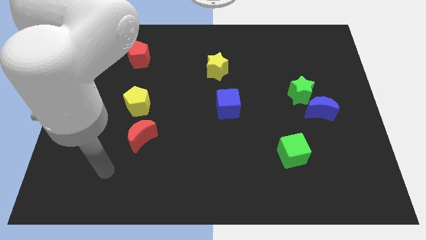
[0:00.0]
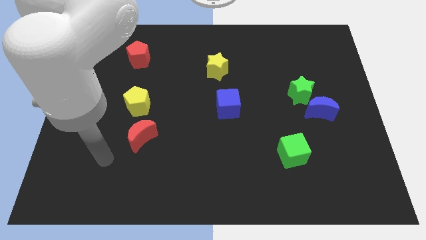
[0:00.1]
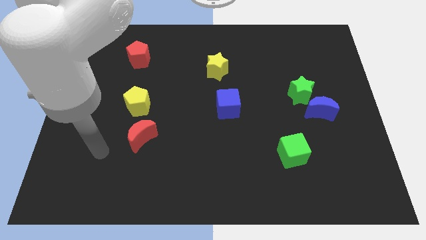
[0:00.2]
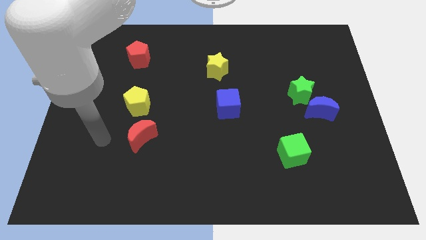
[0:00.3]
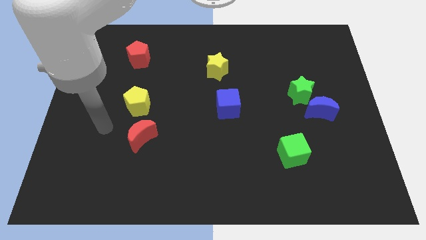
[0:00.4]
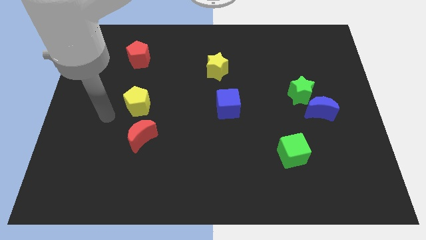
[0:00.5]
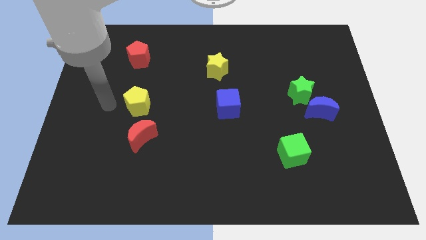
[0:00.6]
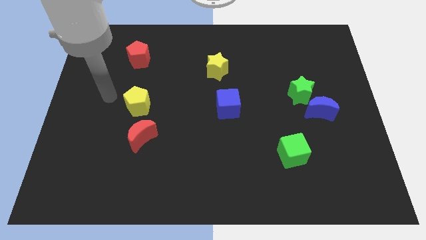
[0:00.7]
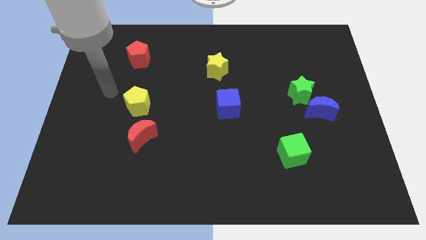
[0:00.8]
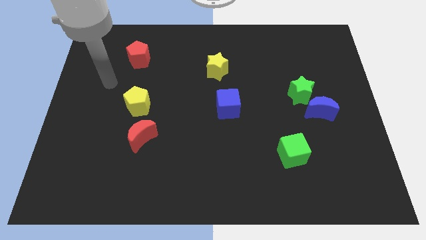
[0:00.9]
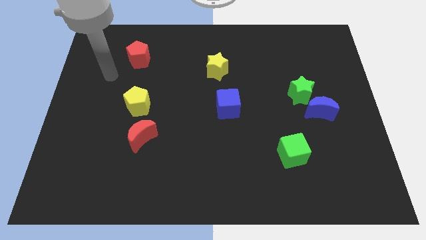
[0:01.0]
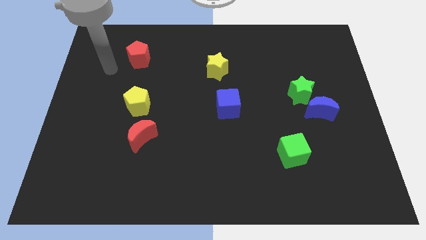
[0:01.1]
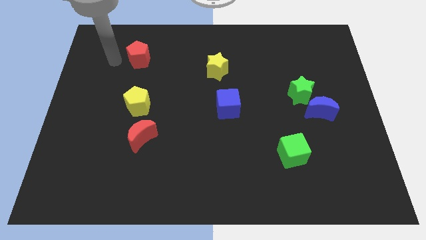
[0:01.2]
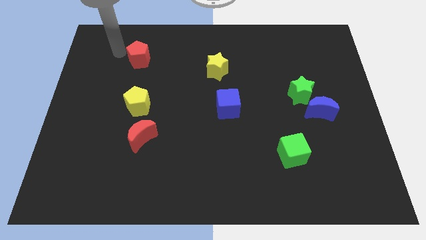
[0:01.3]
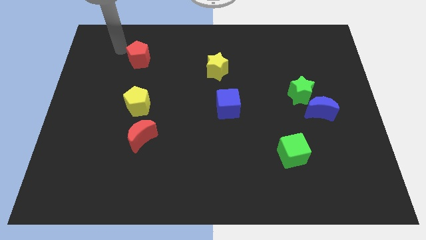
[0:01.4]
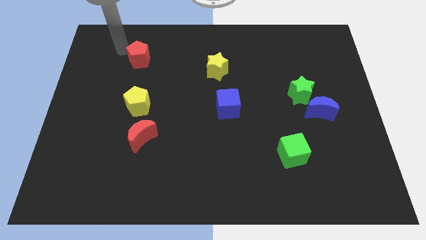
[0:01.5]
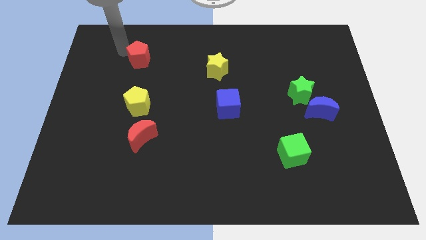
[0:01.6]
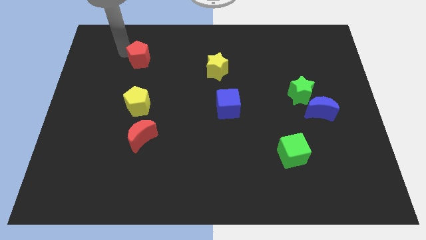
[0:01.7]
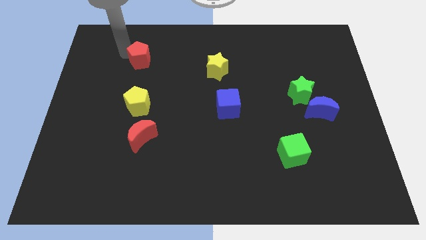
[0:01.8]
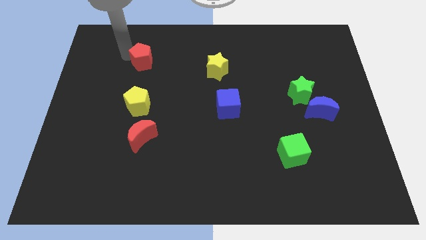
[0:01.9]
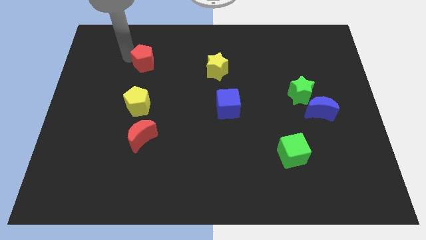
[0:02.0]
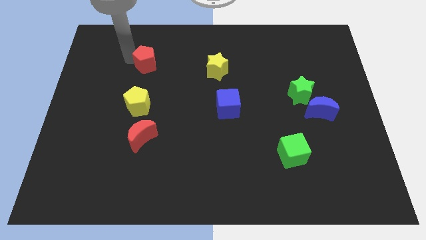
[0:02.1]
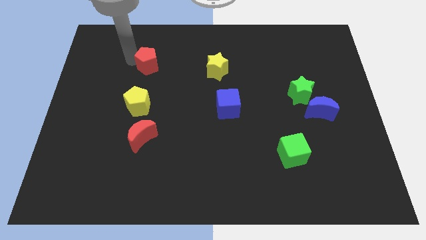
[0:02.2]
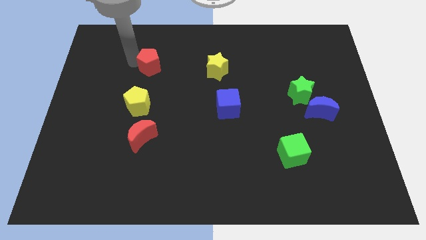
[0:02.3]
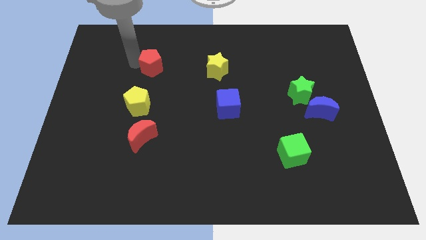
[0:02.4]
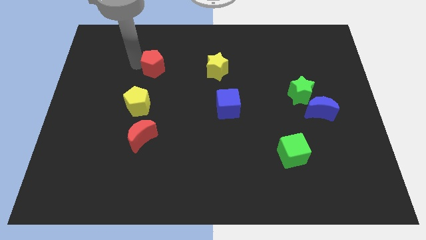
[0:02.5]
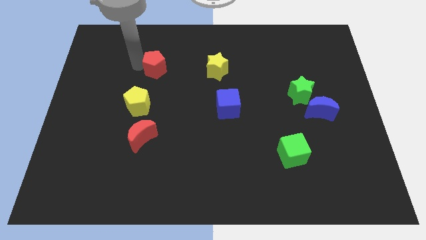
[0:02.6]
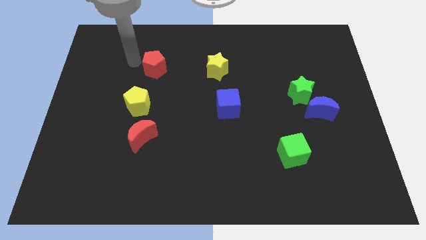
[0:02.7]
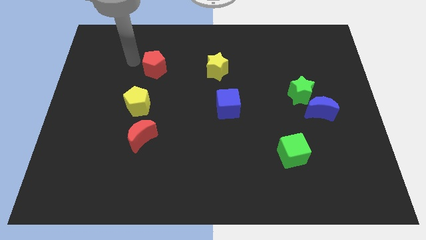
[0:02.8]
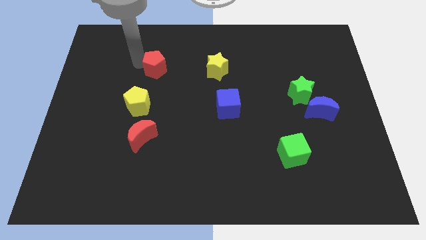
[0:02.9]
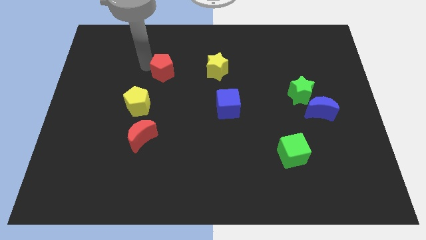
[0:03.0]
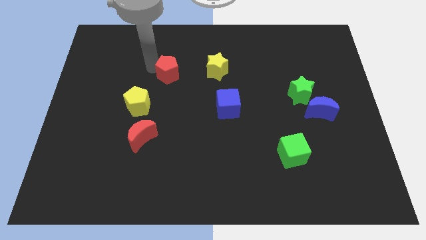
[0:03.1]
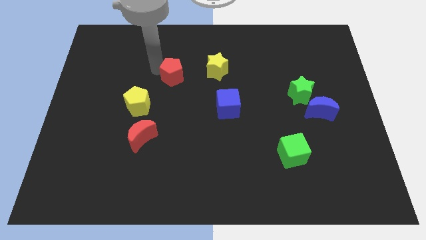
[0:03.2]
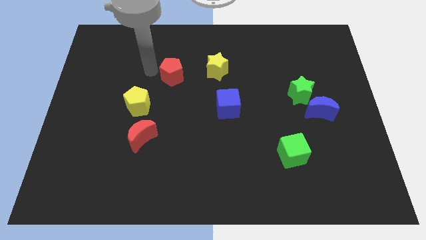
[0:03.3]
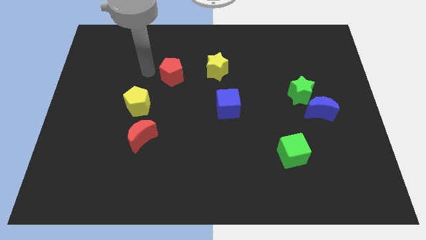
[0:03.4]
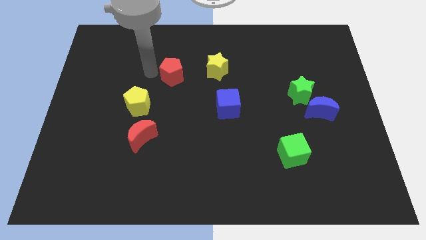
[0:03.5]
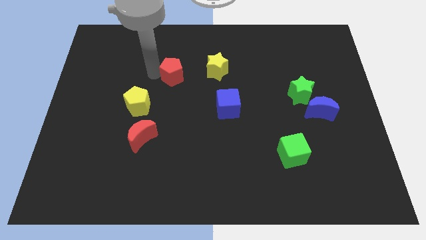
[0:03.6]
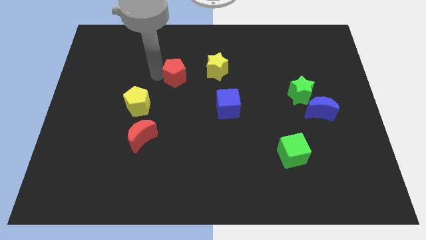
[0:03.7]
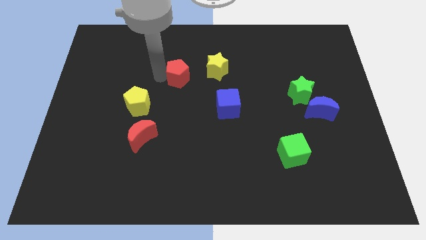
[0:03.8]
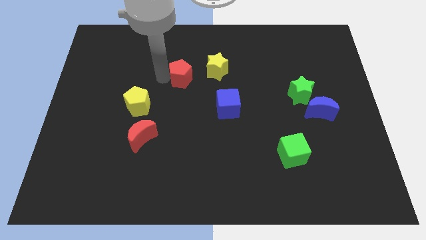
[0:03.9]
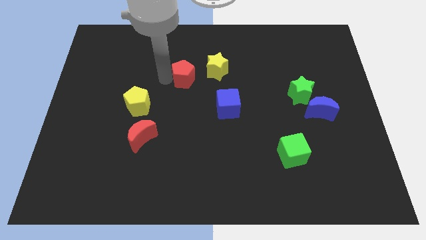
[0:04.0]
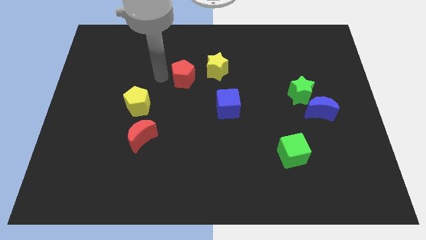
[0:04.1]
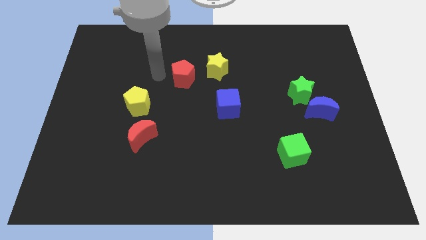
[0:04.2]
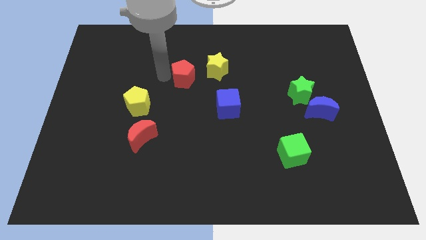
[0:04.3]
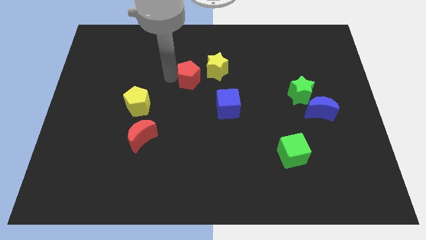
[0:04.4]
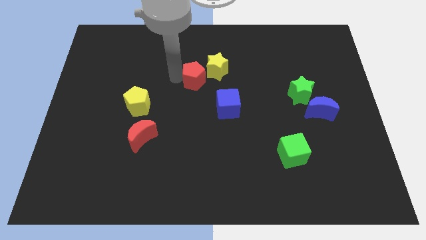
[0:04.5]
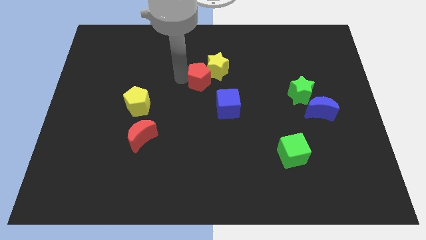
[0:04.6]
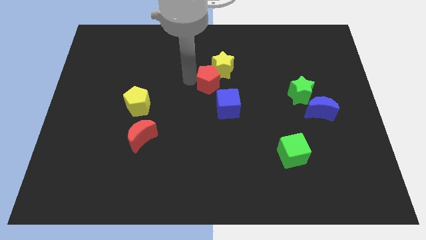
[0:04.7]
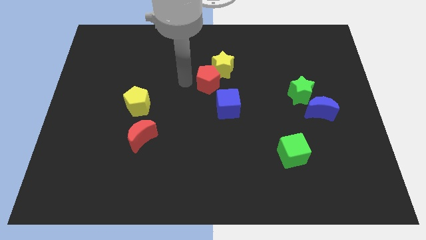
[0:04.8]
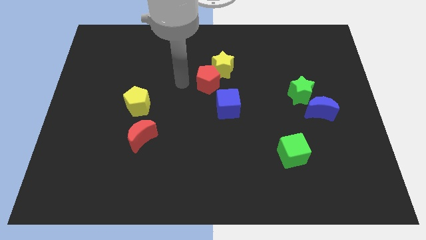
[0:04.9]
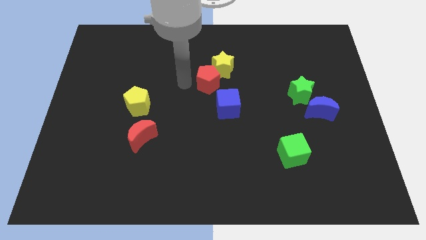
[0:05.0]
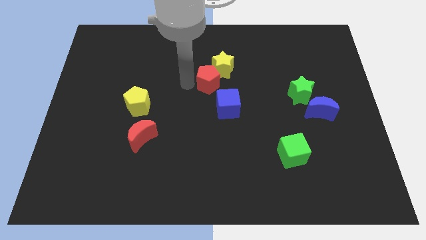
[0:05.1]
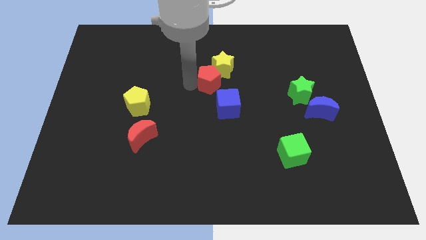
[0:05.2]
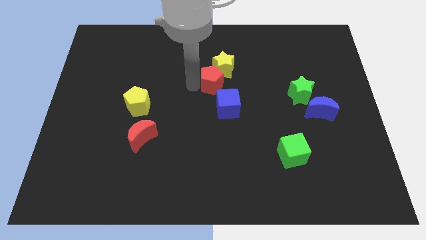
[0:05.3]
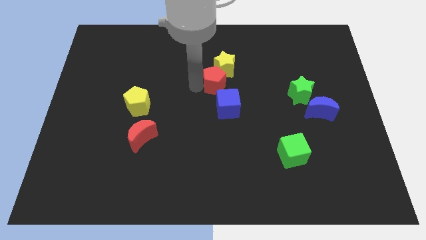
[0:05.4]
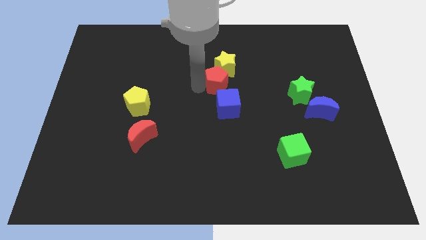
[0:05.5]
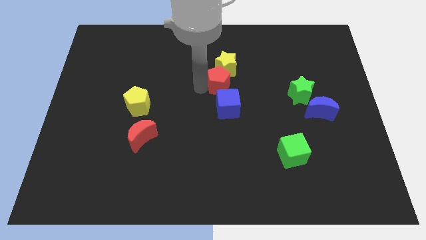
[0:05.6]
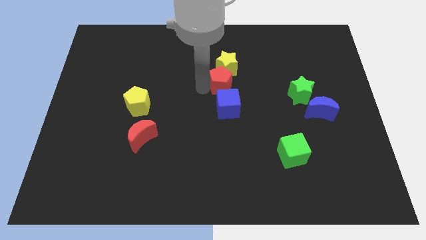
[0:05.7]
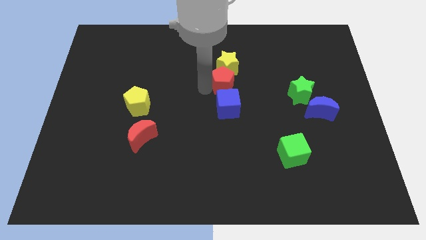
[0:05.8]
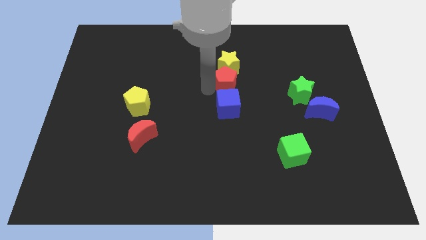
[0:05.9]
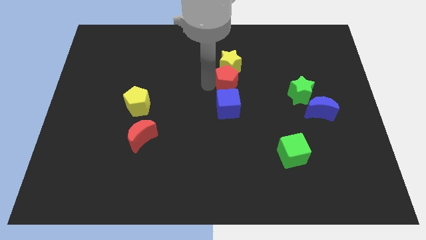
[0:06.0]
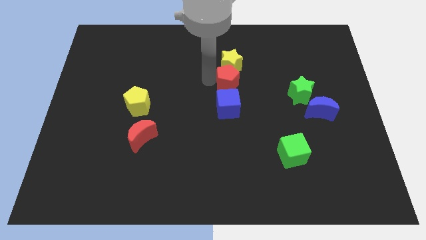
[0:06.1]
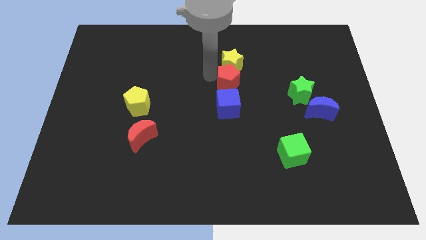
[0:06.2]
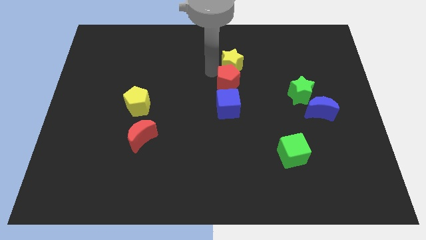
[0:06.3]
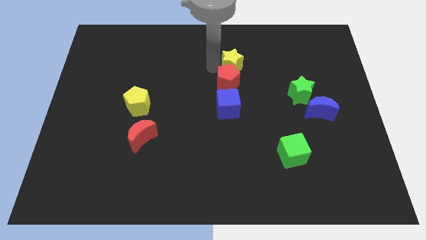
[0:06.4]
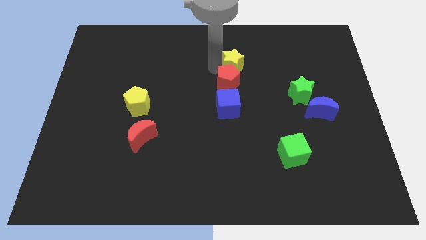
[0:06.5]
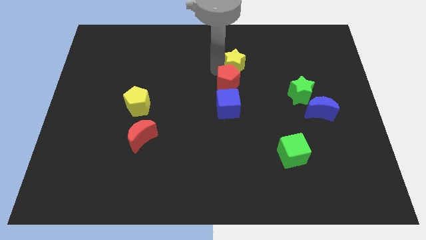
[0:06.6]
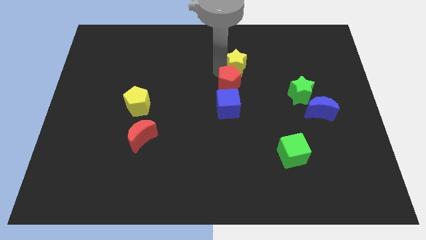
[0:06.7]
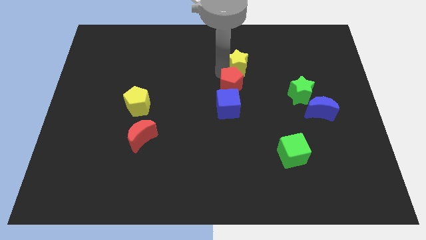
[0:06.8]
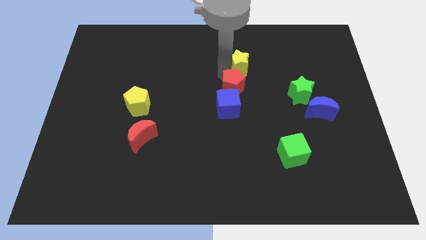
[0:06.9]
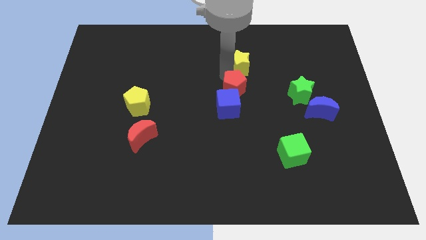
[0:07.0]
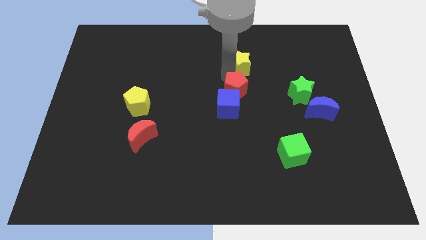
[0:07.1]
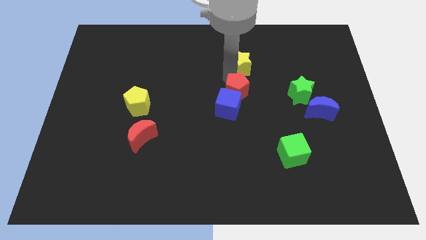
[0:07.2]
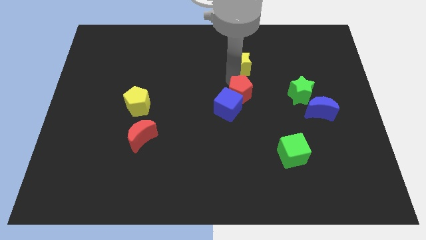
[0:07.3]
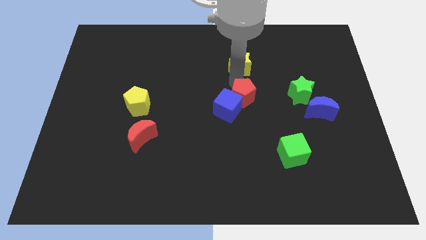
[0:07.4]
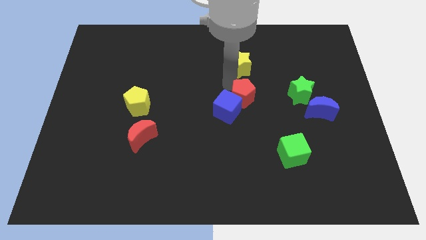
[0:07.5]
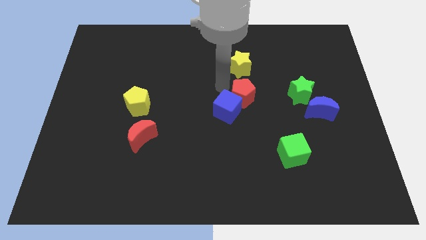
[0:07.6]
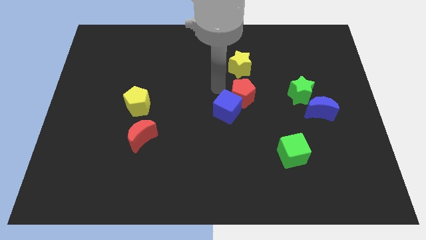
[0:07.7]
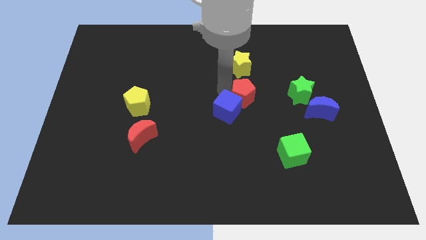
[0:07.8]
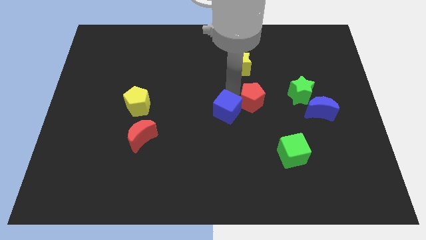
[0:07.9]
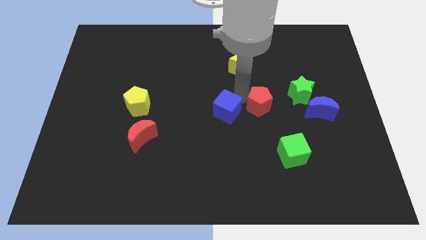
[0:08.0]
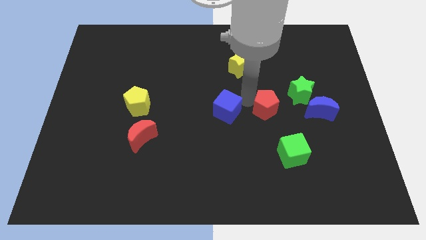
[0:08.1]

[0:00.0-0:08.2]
put the red pentagon to the bottom left side of the green star
